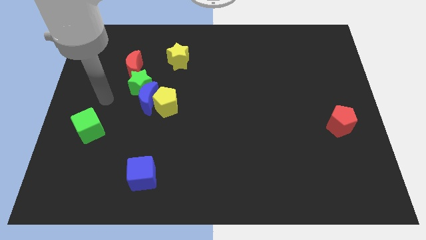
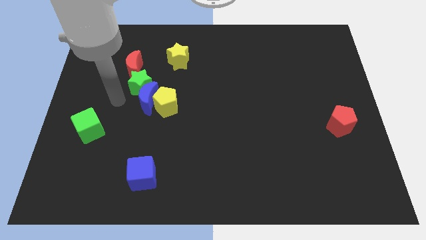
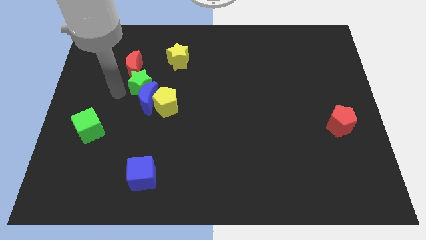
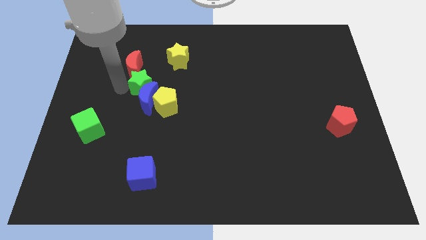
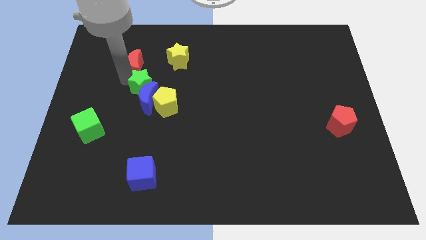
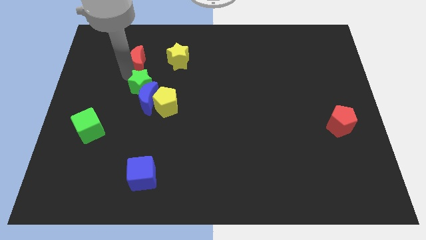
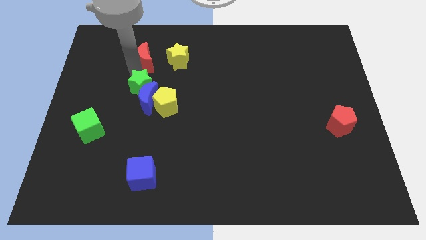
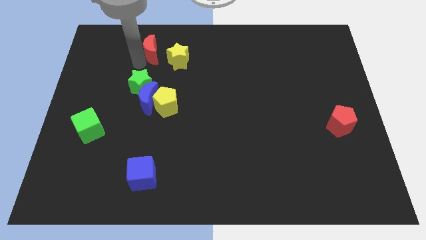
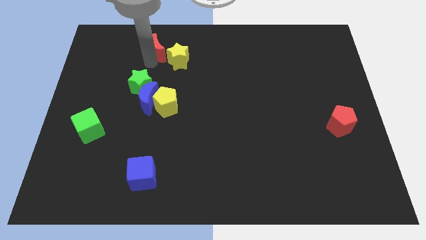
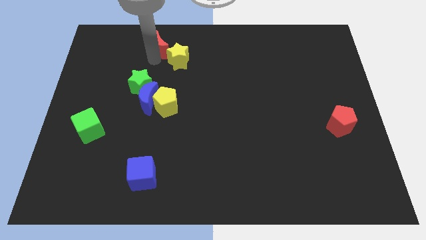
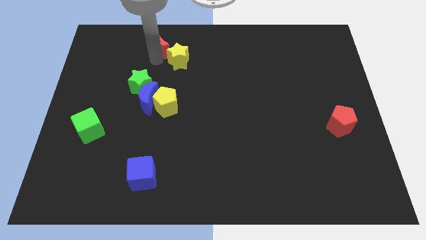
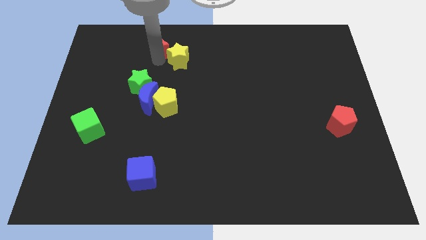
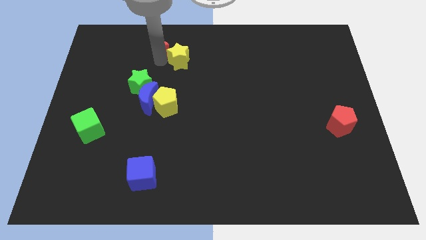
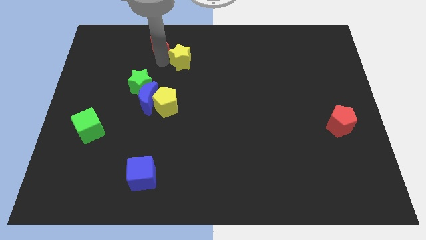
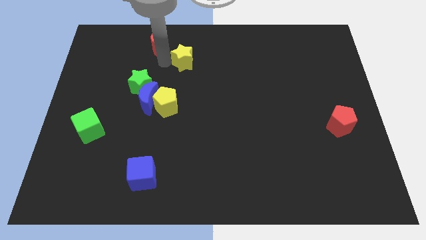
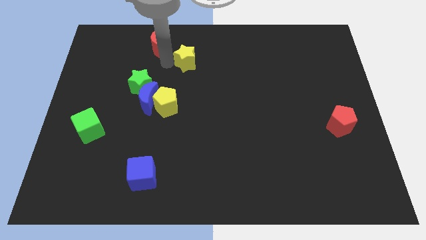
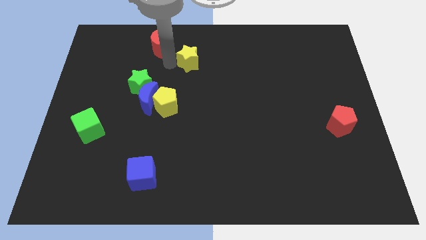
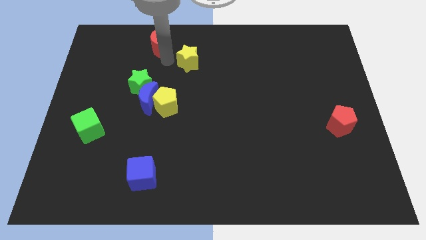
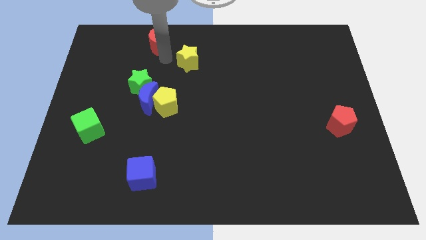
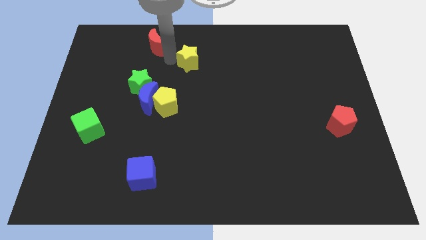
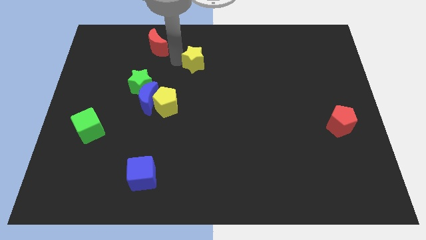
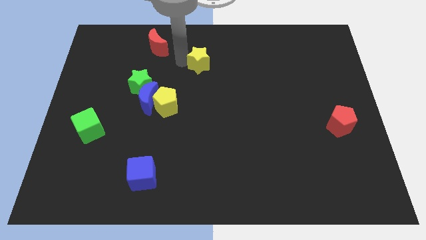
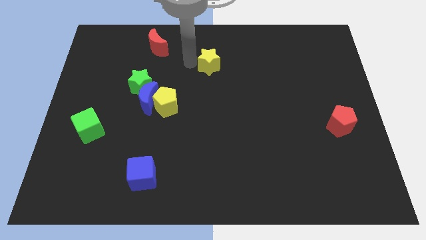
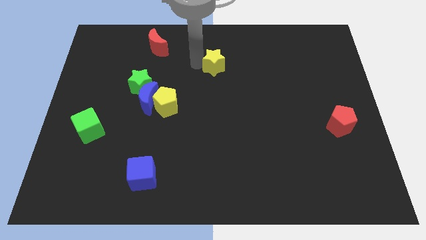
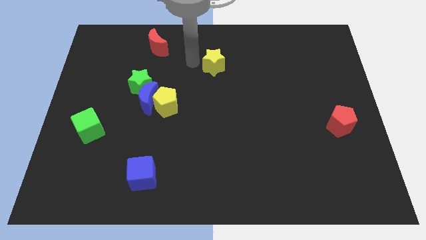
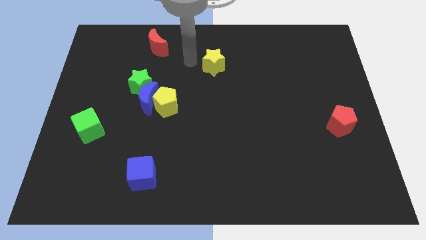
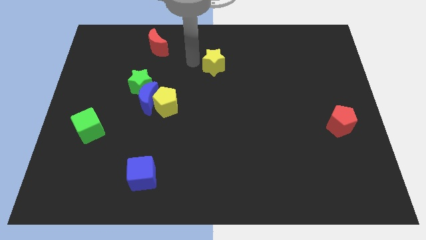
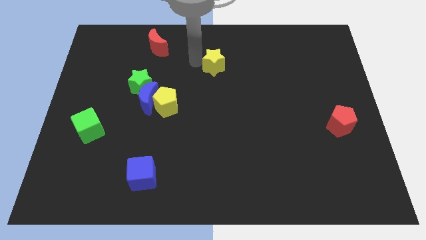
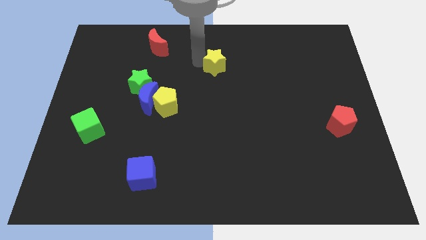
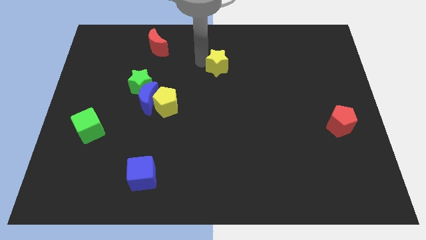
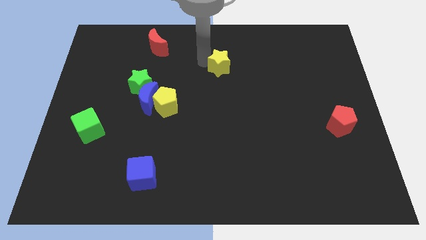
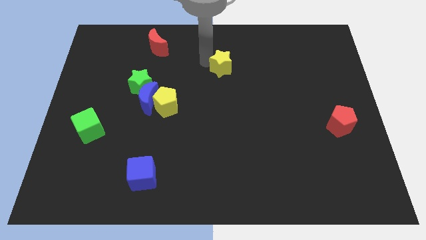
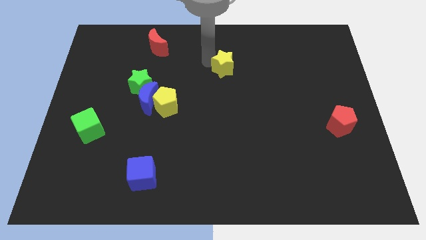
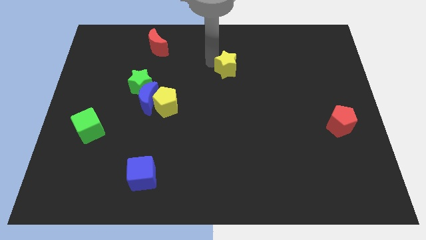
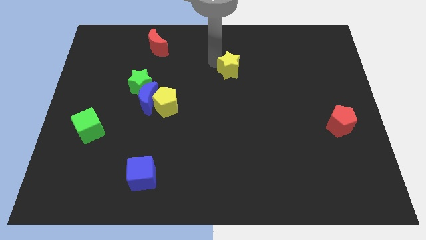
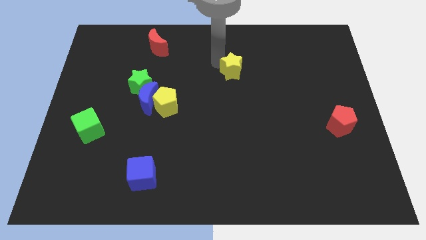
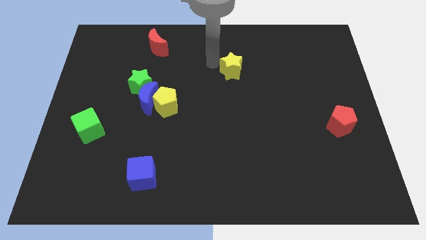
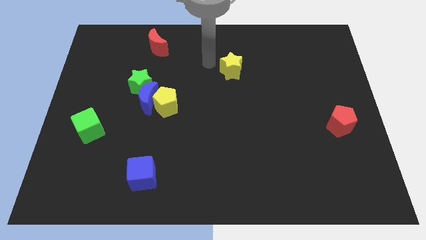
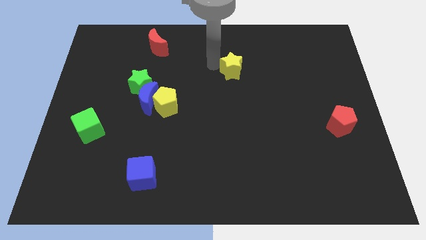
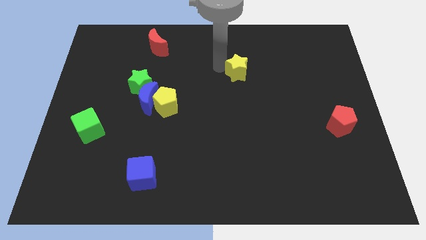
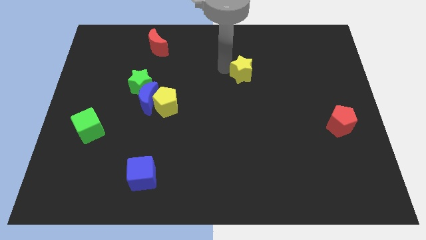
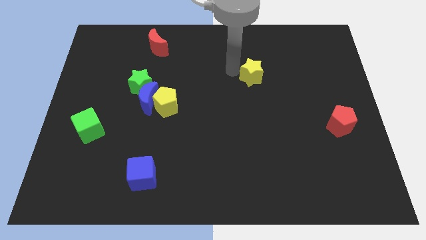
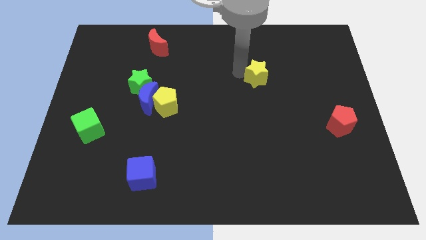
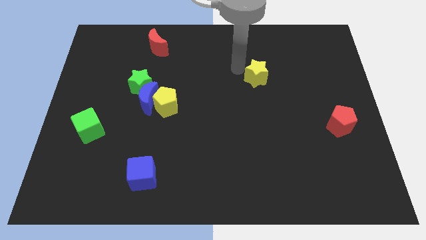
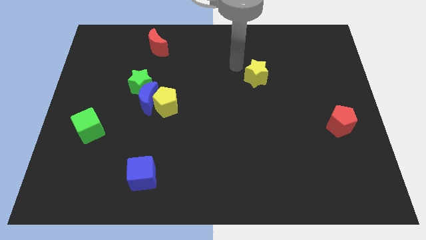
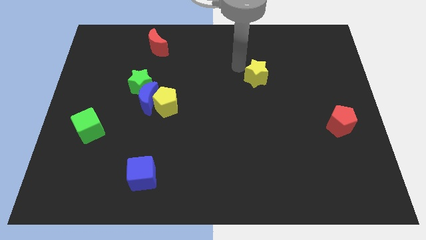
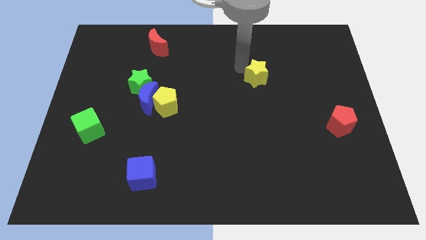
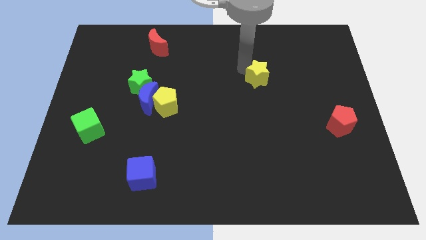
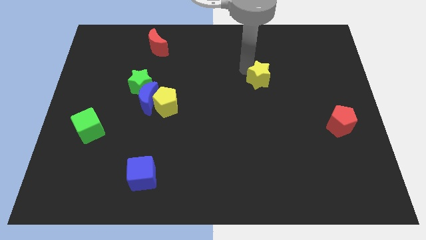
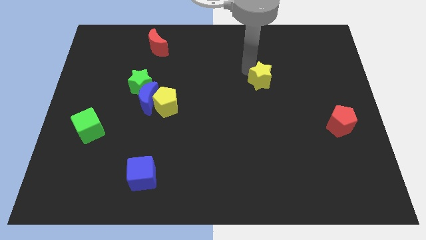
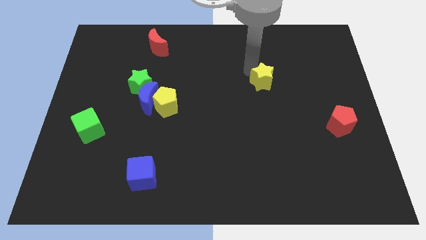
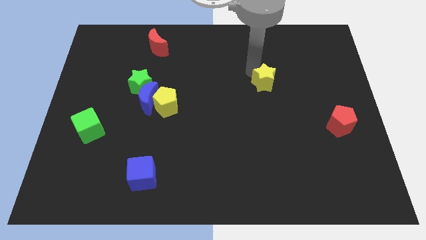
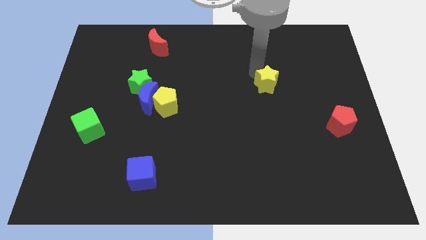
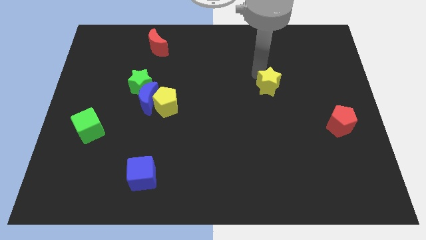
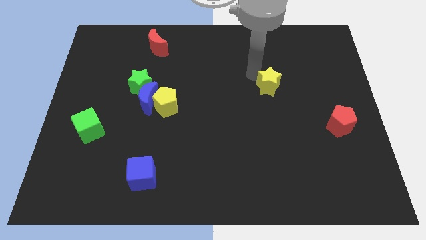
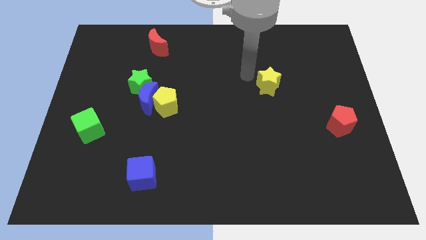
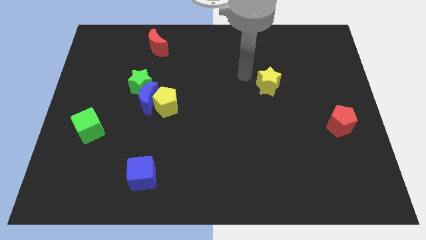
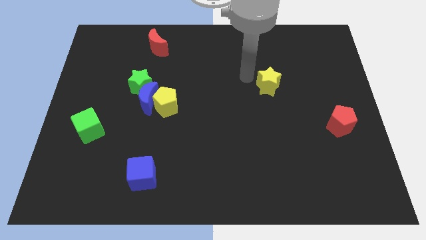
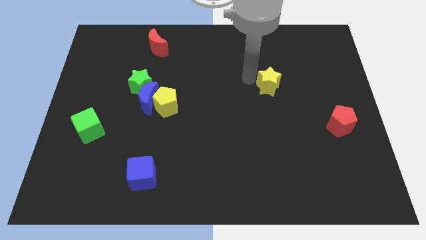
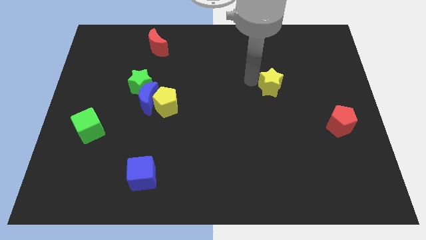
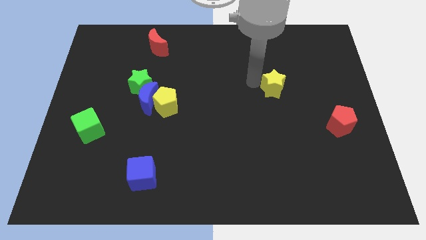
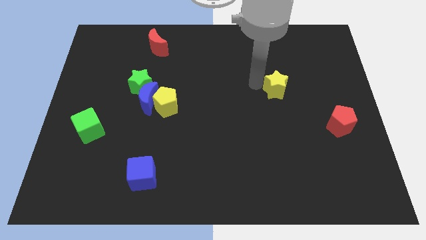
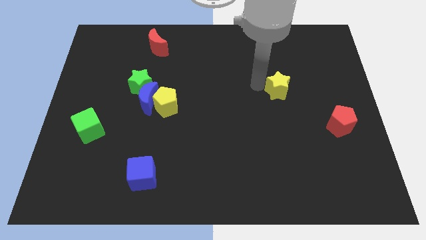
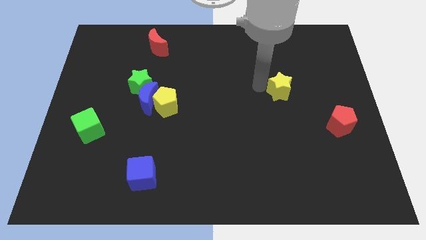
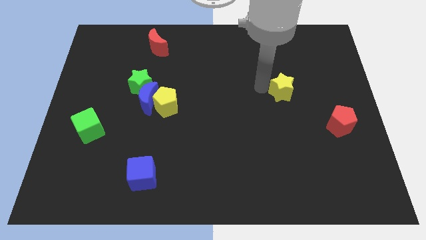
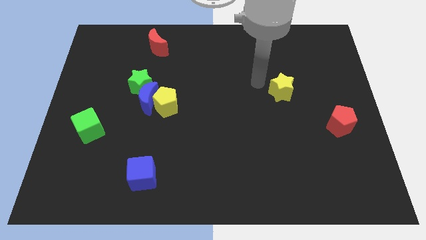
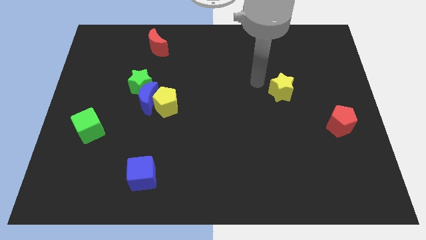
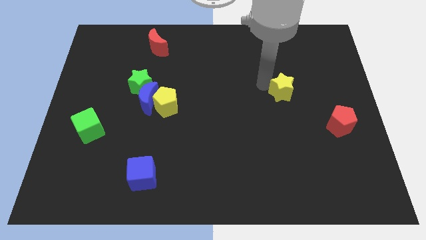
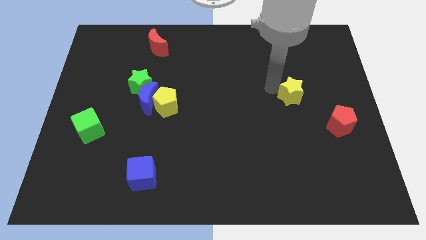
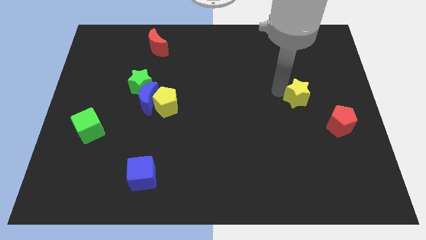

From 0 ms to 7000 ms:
move the yellow star to the top left of the red pentagon
